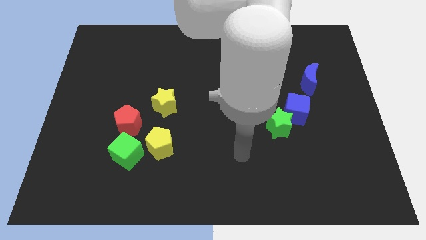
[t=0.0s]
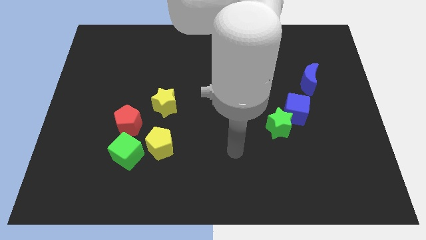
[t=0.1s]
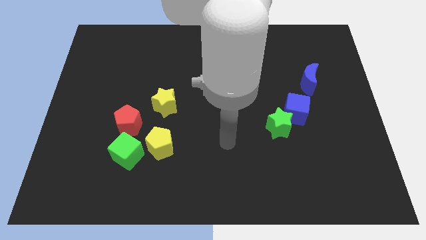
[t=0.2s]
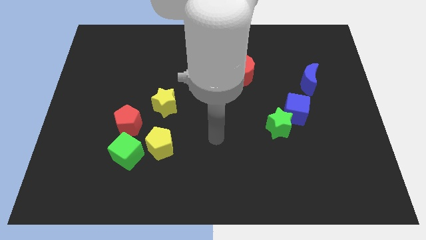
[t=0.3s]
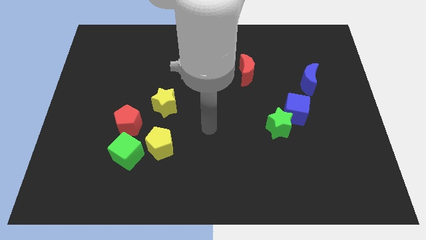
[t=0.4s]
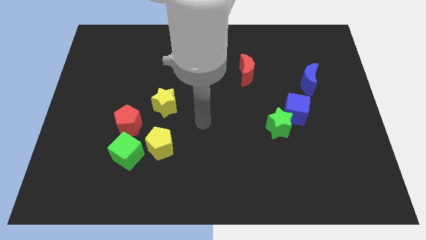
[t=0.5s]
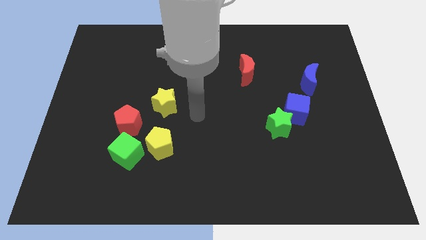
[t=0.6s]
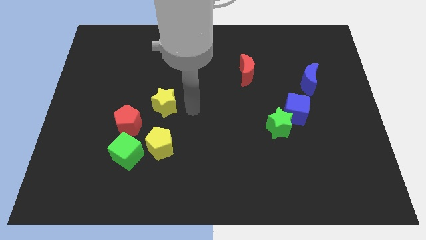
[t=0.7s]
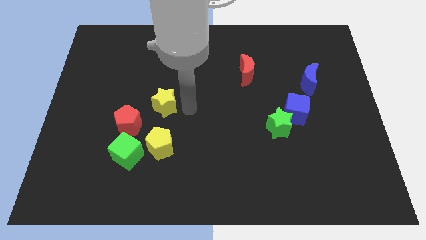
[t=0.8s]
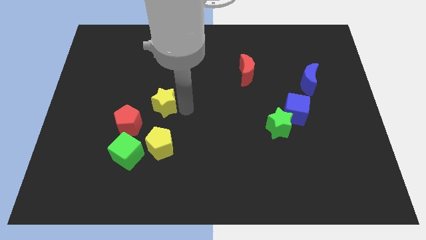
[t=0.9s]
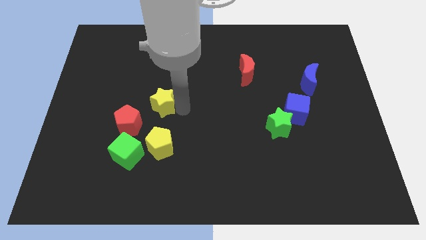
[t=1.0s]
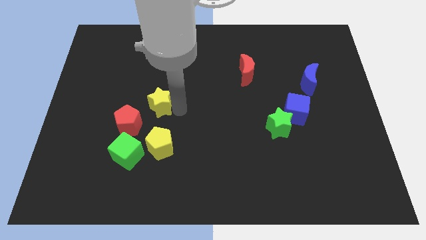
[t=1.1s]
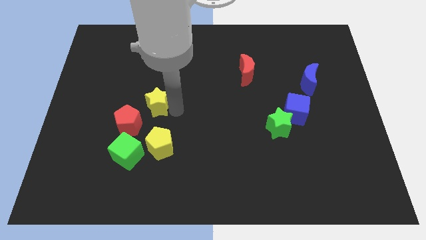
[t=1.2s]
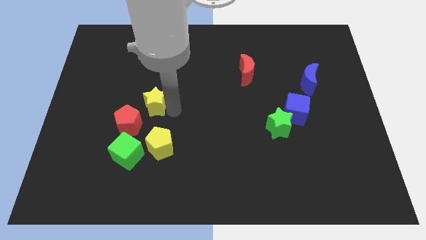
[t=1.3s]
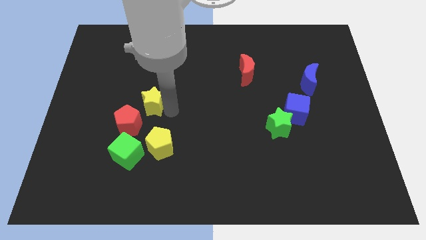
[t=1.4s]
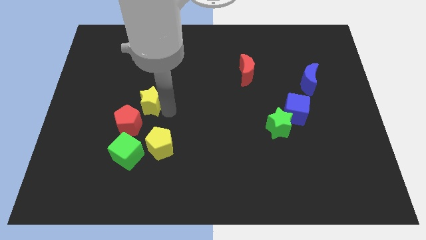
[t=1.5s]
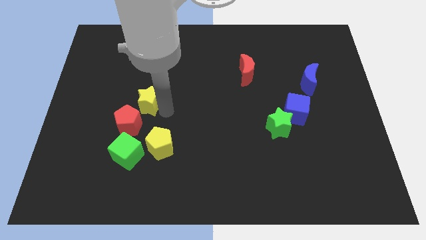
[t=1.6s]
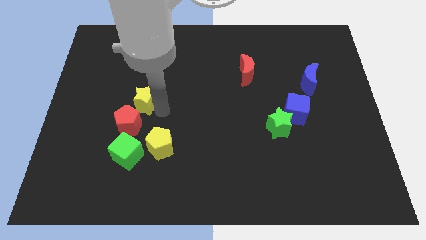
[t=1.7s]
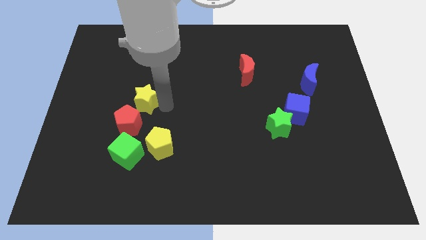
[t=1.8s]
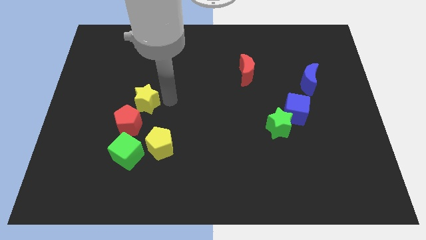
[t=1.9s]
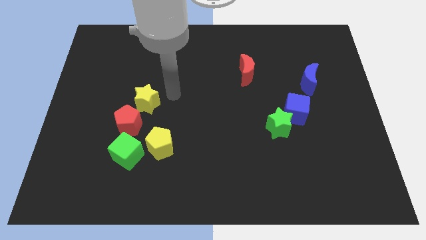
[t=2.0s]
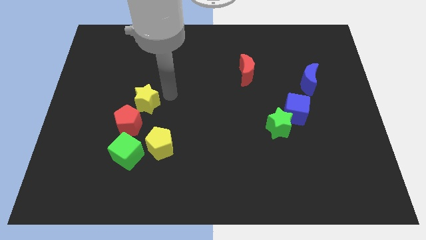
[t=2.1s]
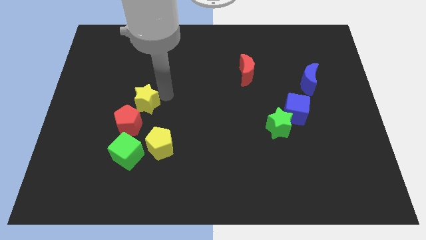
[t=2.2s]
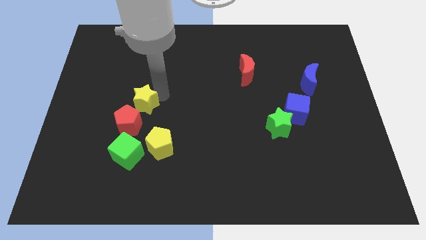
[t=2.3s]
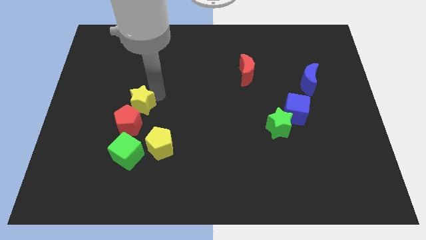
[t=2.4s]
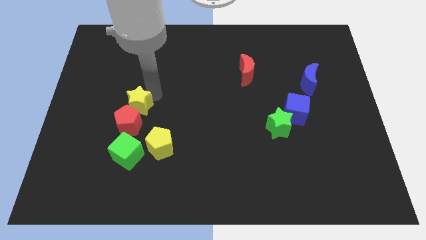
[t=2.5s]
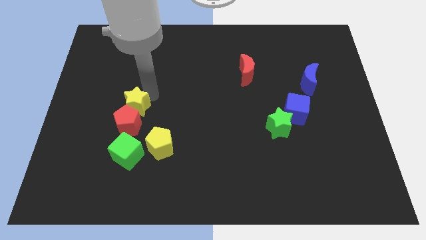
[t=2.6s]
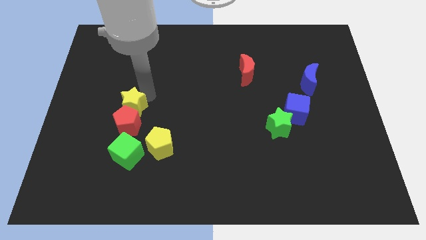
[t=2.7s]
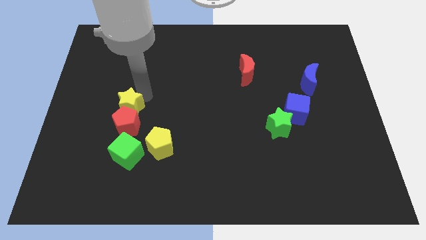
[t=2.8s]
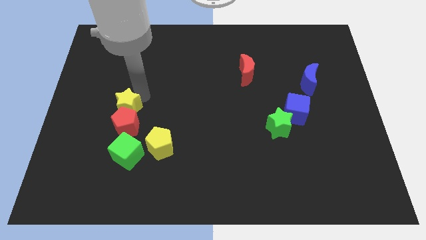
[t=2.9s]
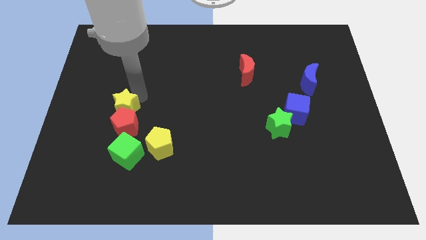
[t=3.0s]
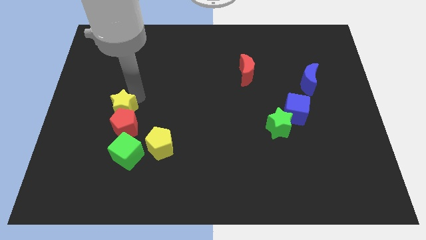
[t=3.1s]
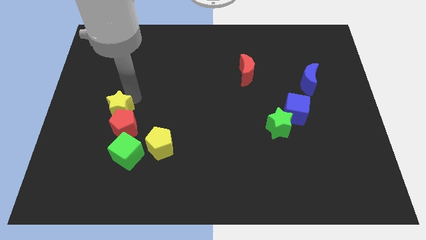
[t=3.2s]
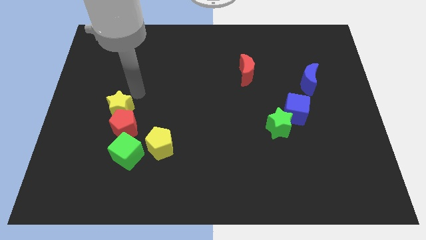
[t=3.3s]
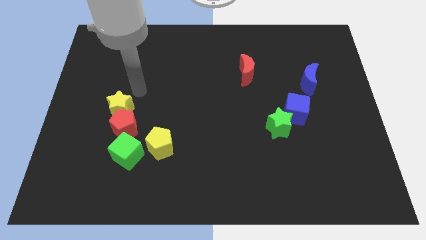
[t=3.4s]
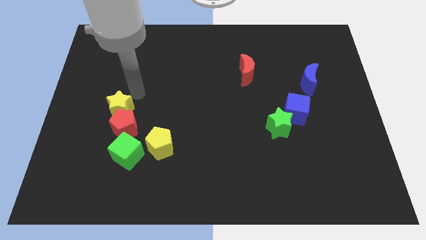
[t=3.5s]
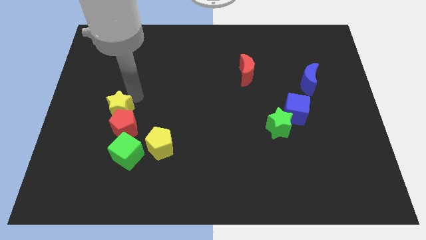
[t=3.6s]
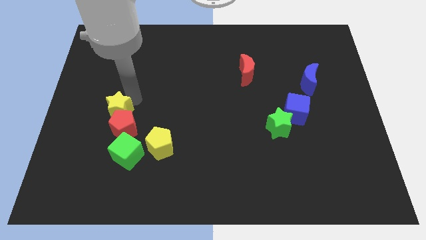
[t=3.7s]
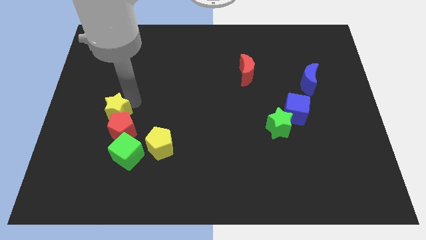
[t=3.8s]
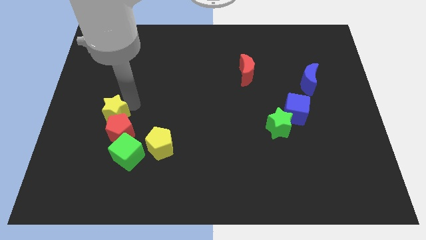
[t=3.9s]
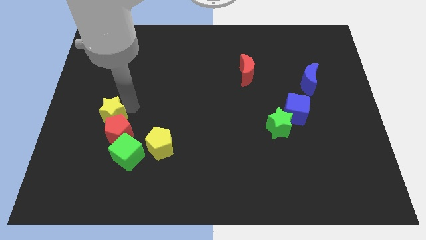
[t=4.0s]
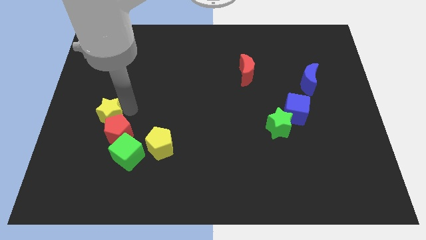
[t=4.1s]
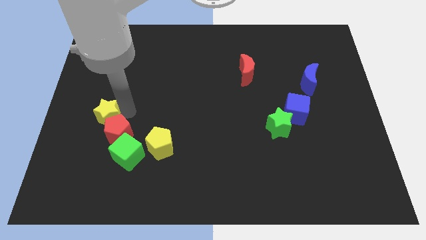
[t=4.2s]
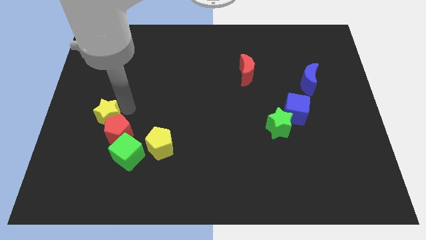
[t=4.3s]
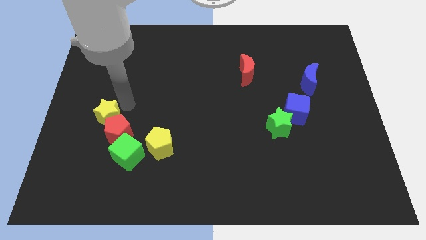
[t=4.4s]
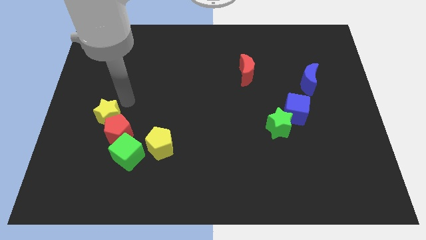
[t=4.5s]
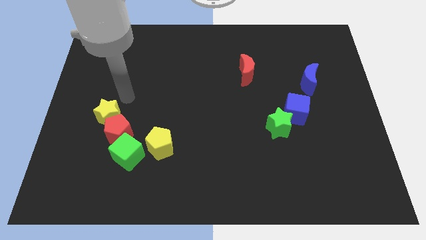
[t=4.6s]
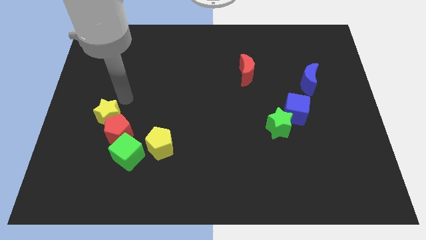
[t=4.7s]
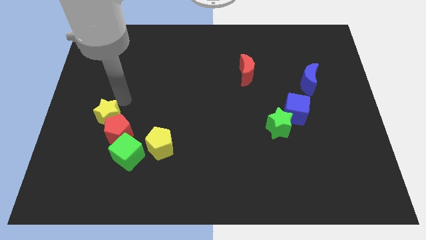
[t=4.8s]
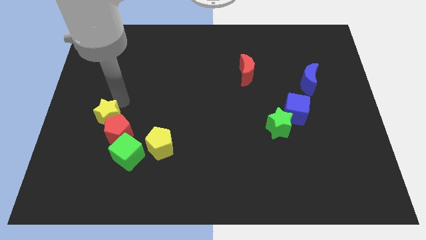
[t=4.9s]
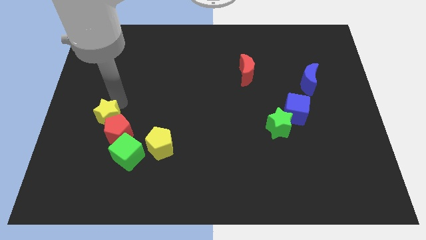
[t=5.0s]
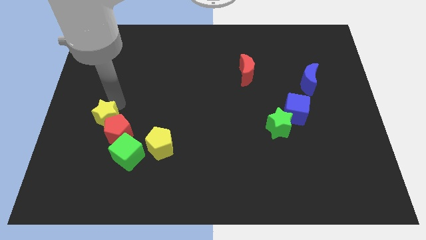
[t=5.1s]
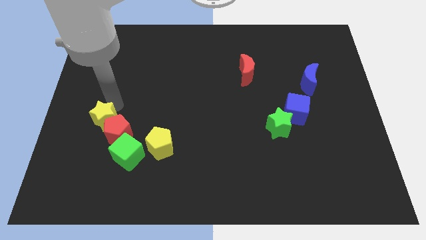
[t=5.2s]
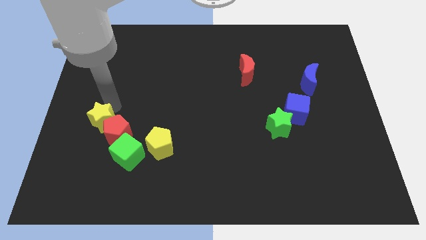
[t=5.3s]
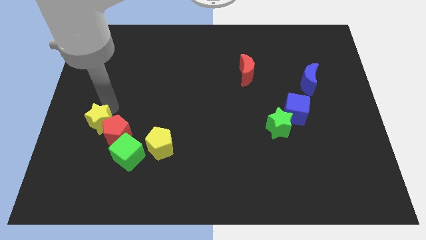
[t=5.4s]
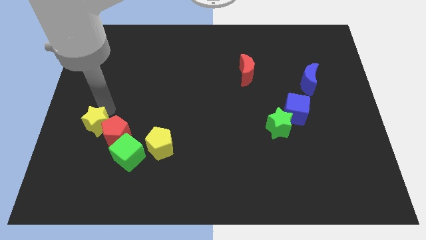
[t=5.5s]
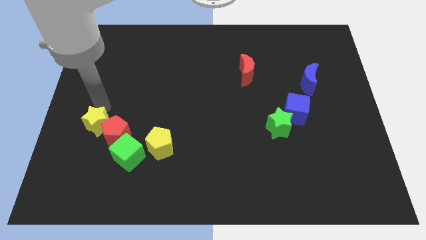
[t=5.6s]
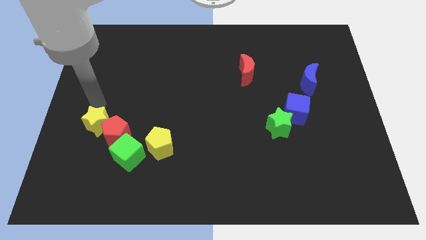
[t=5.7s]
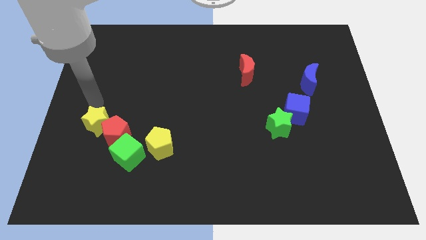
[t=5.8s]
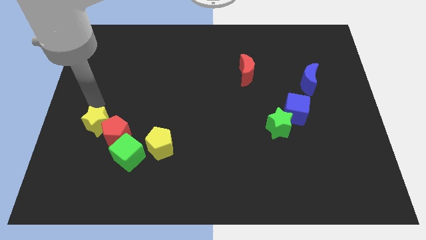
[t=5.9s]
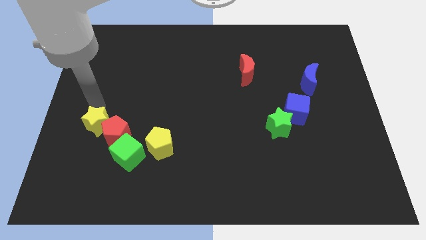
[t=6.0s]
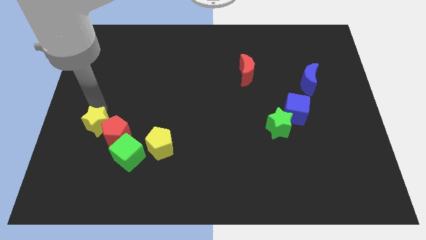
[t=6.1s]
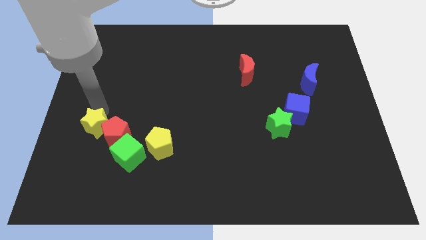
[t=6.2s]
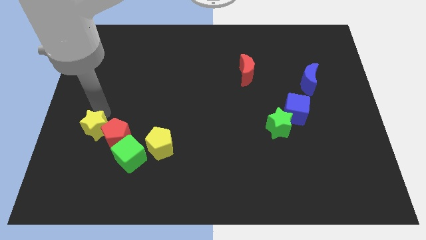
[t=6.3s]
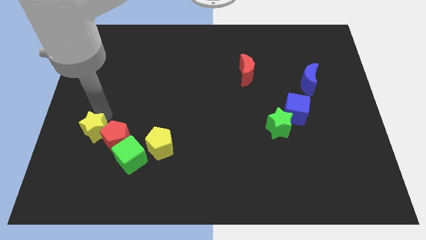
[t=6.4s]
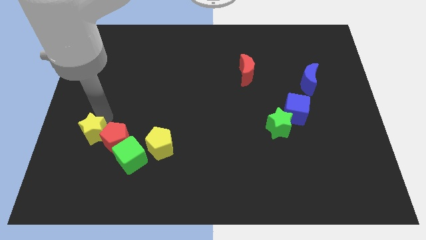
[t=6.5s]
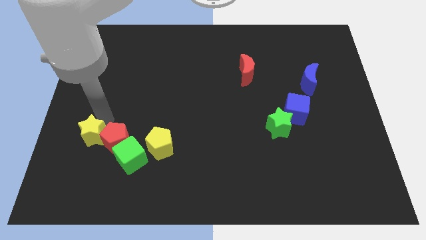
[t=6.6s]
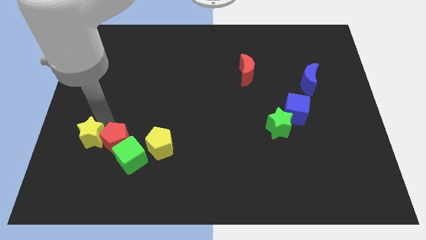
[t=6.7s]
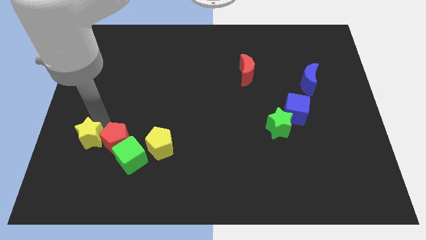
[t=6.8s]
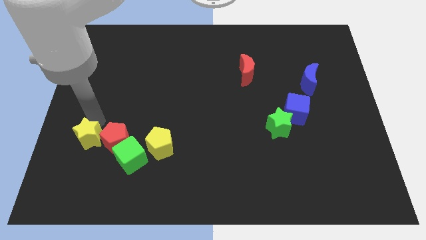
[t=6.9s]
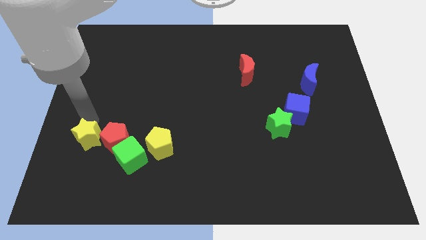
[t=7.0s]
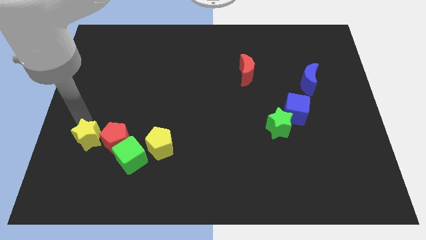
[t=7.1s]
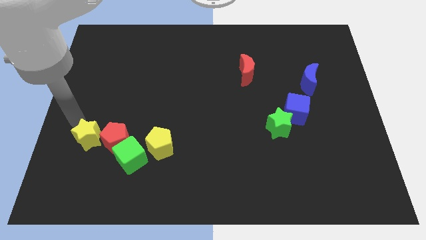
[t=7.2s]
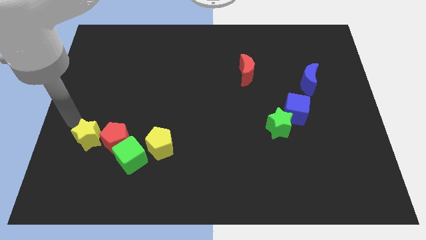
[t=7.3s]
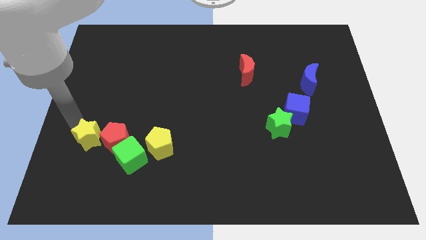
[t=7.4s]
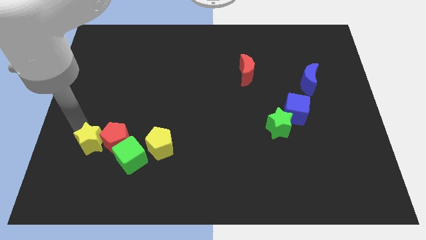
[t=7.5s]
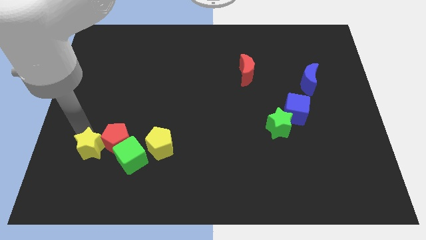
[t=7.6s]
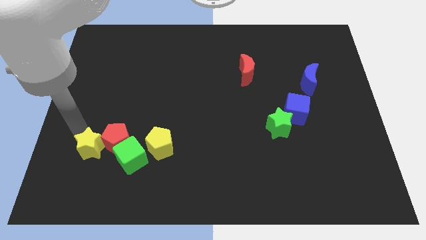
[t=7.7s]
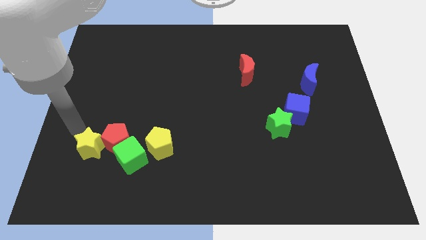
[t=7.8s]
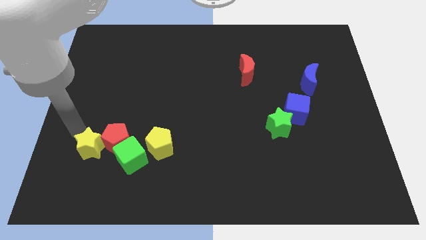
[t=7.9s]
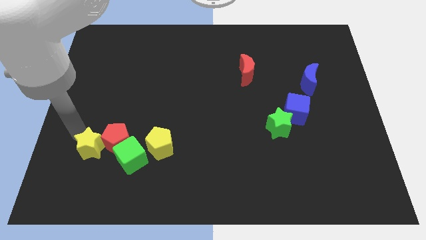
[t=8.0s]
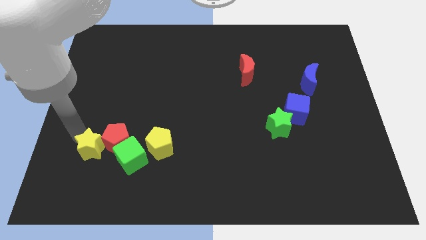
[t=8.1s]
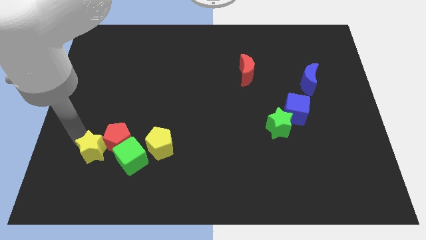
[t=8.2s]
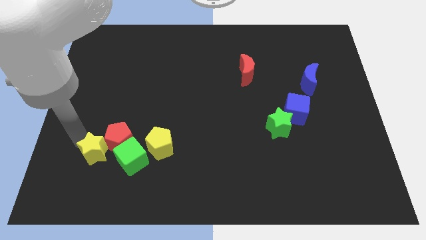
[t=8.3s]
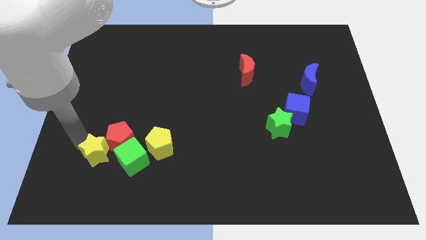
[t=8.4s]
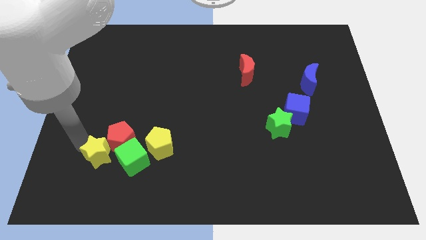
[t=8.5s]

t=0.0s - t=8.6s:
slide the yellow star to the bottom of the red pentagon
